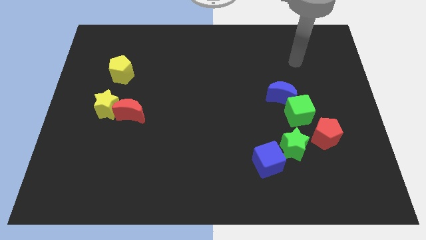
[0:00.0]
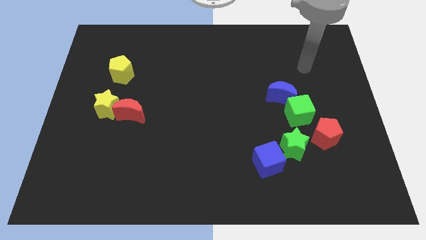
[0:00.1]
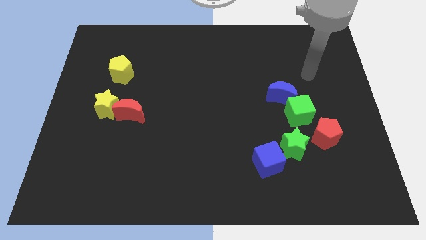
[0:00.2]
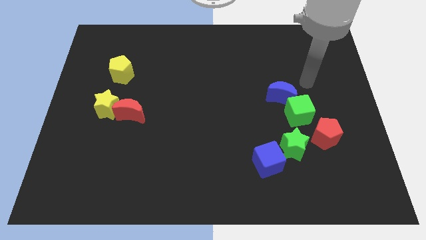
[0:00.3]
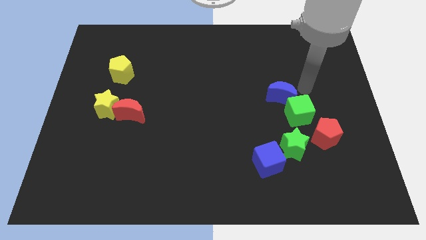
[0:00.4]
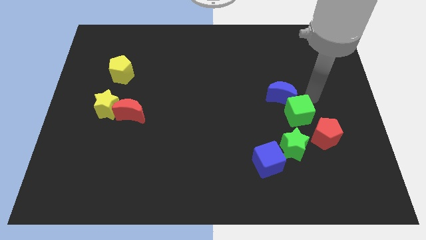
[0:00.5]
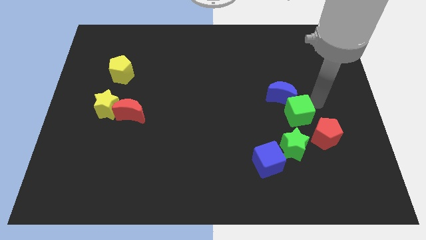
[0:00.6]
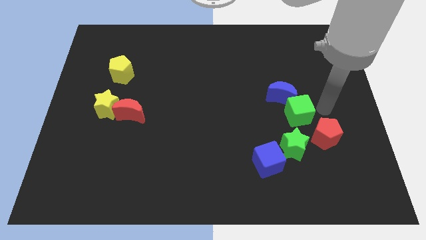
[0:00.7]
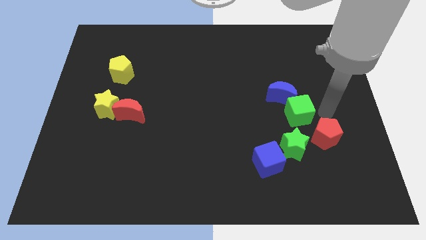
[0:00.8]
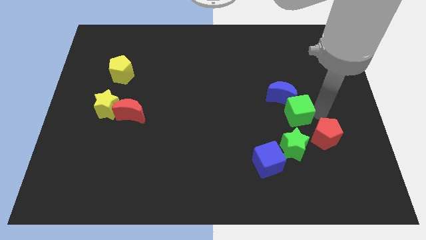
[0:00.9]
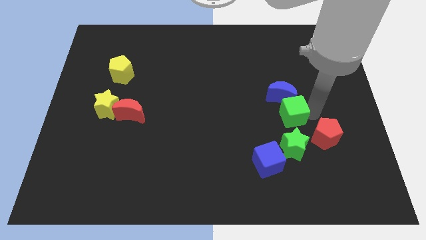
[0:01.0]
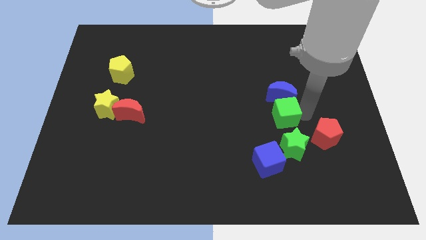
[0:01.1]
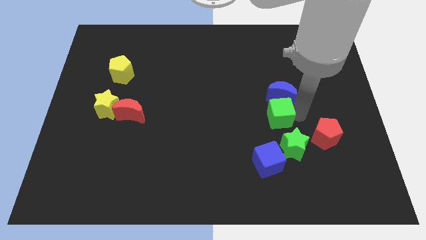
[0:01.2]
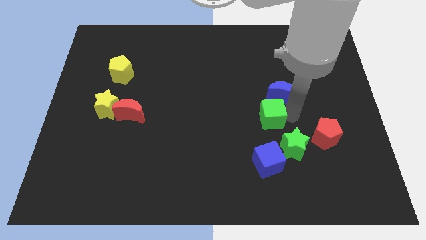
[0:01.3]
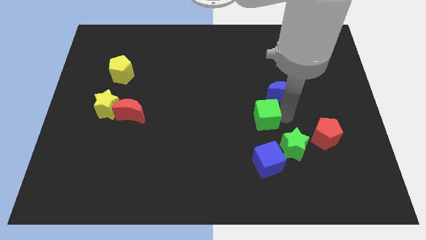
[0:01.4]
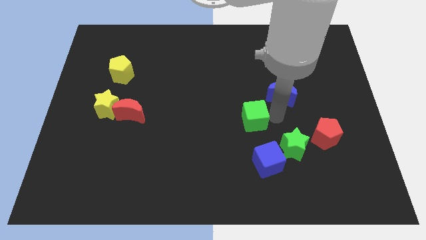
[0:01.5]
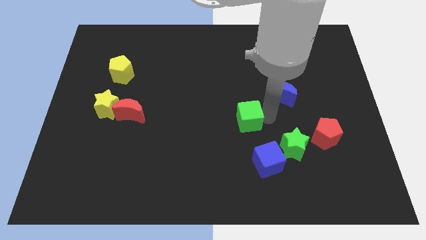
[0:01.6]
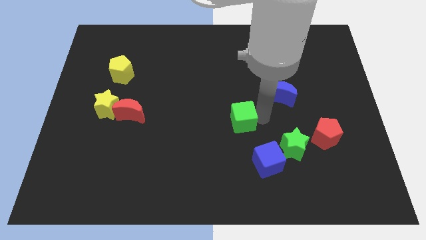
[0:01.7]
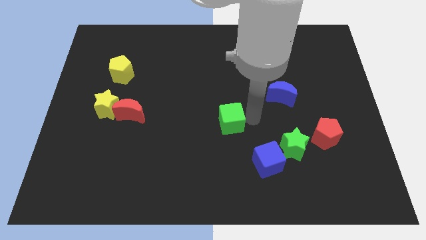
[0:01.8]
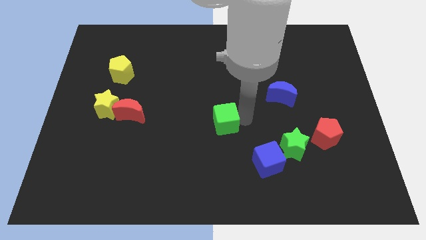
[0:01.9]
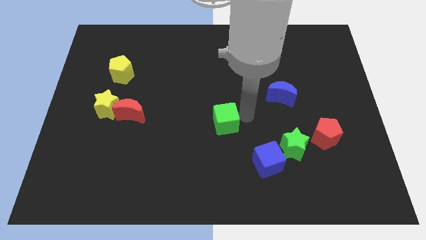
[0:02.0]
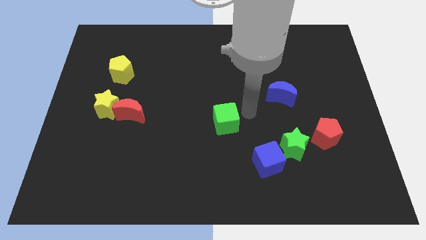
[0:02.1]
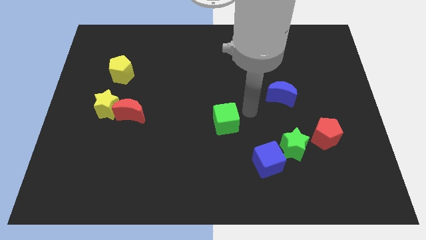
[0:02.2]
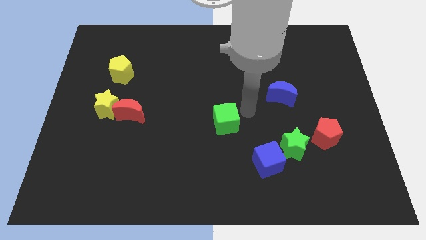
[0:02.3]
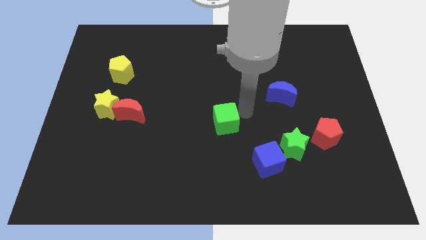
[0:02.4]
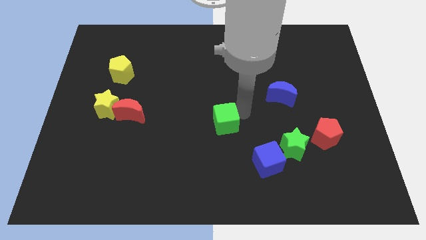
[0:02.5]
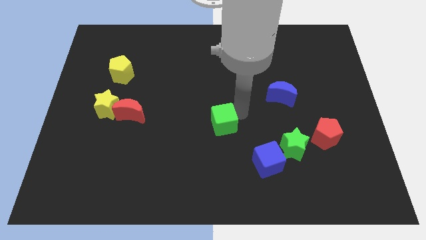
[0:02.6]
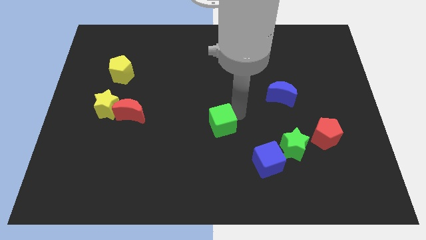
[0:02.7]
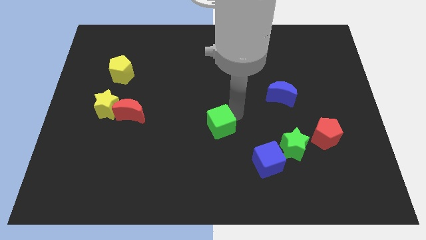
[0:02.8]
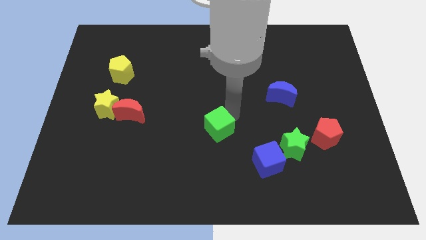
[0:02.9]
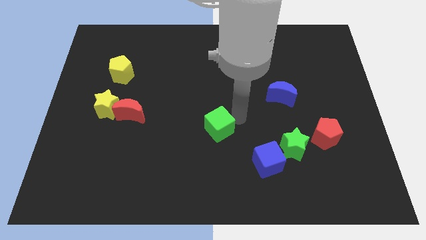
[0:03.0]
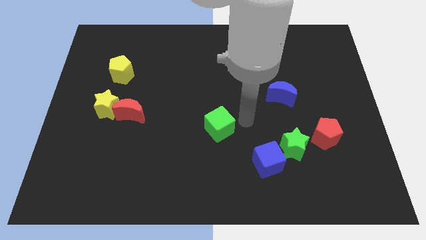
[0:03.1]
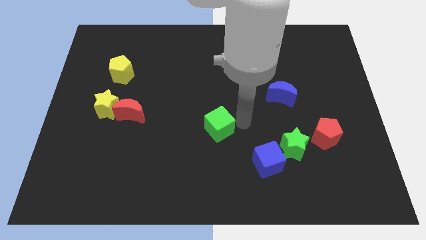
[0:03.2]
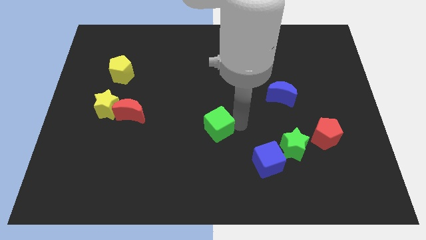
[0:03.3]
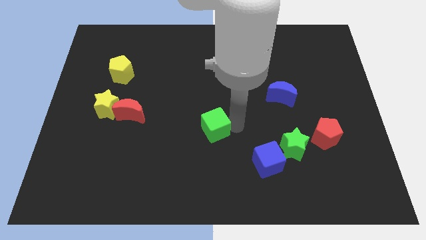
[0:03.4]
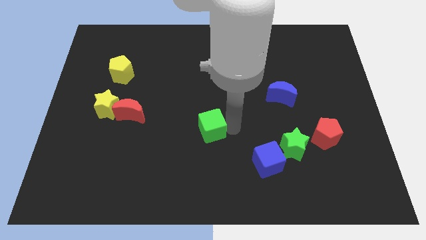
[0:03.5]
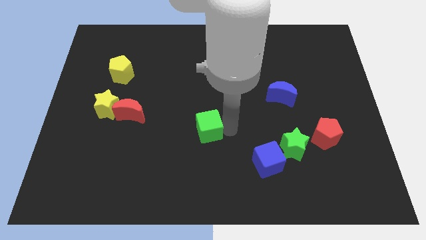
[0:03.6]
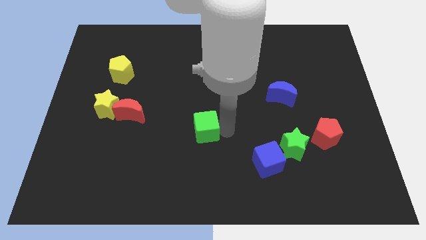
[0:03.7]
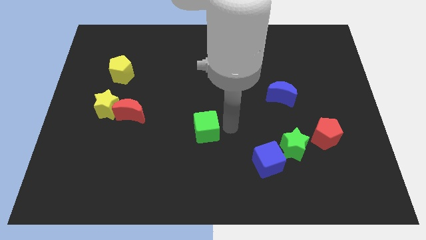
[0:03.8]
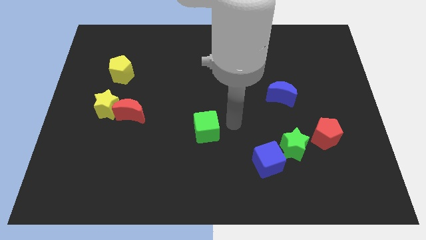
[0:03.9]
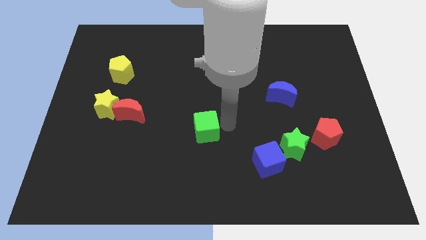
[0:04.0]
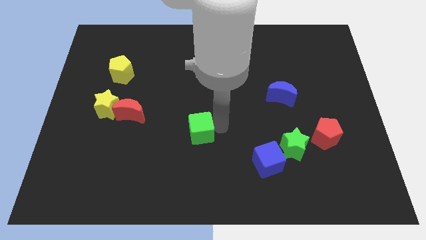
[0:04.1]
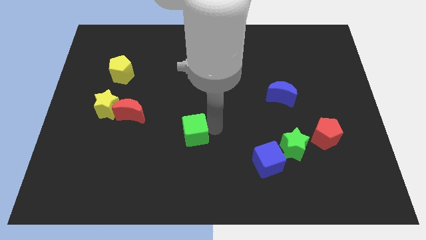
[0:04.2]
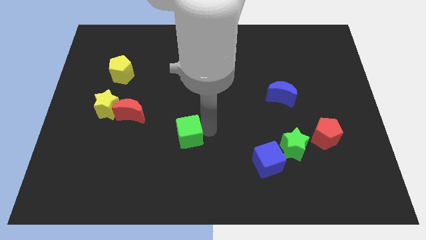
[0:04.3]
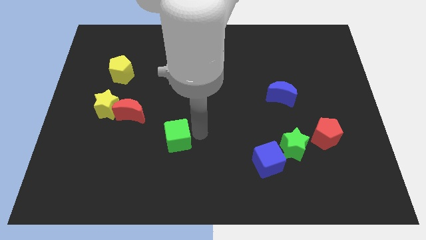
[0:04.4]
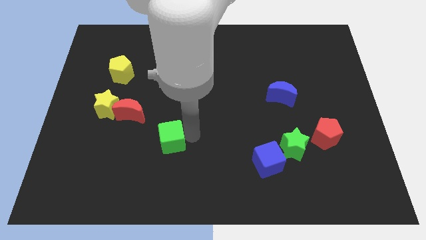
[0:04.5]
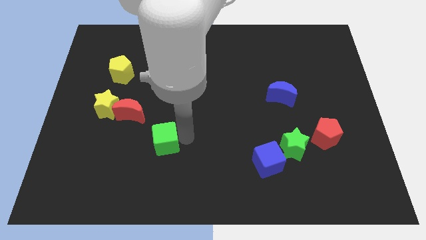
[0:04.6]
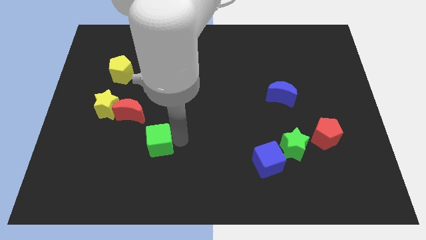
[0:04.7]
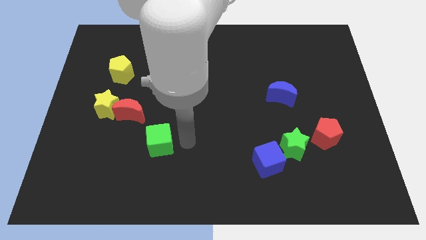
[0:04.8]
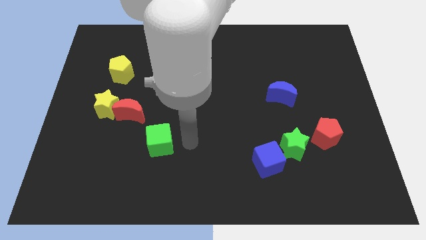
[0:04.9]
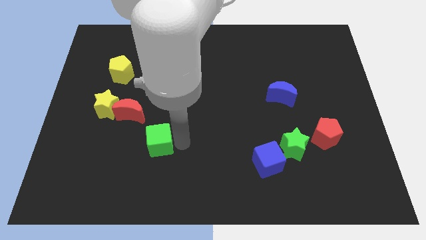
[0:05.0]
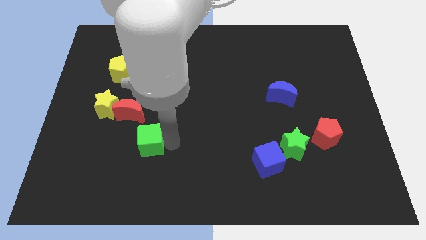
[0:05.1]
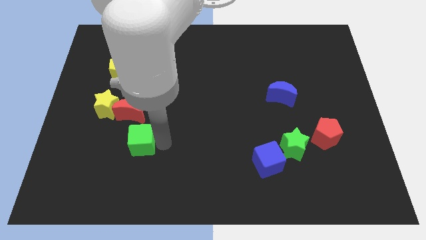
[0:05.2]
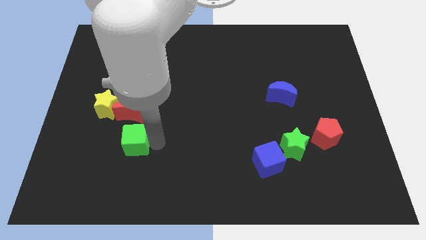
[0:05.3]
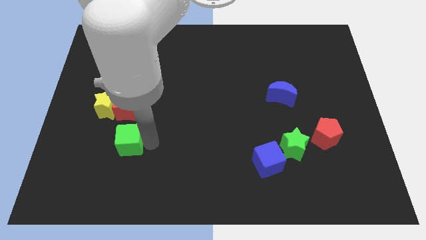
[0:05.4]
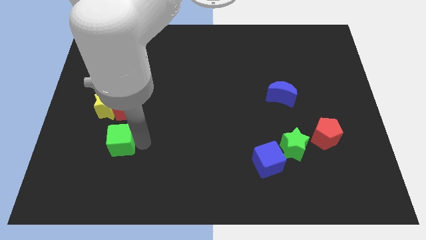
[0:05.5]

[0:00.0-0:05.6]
push the green cube below the yellow star

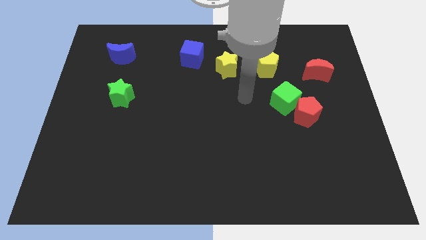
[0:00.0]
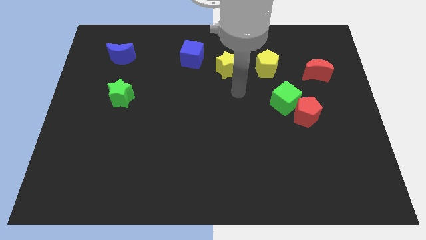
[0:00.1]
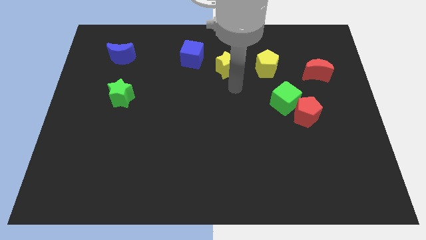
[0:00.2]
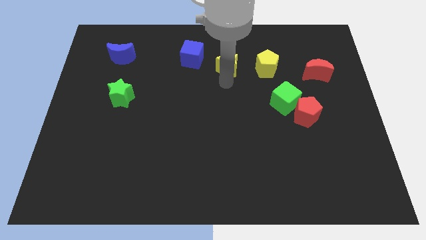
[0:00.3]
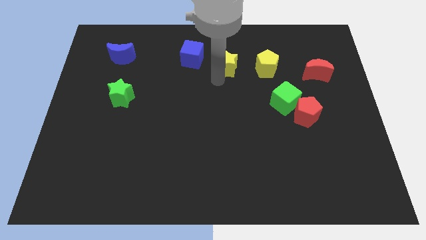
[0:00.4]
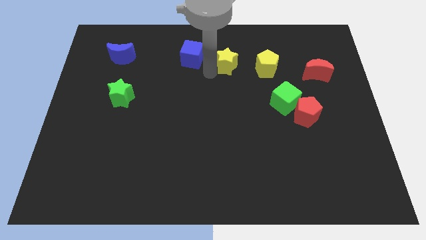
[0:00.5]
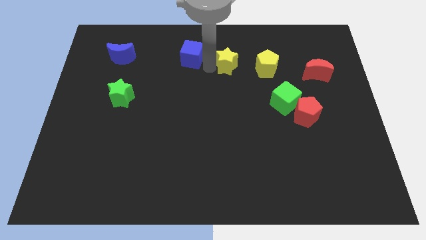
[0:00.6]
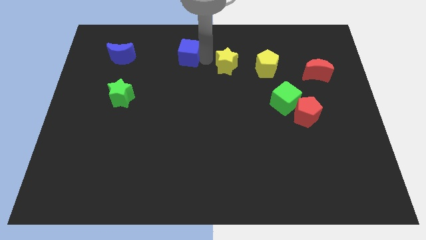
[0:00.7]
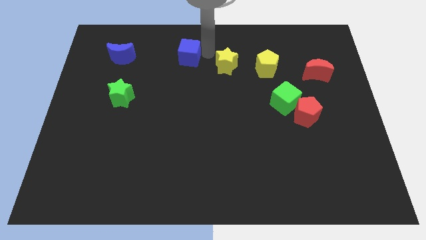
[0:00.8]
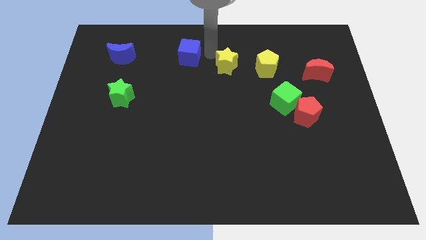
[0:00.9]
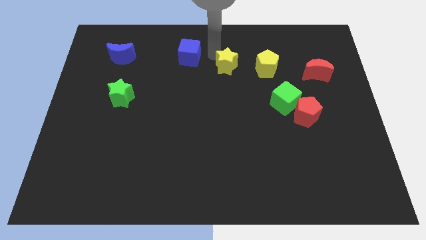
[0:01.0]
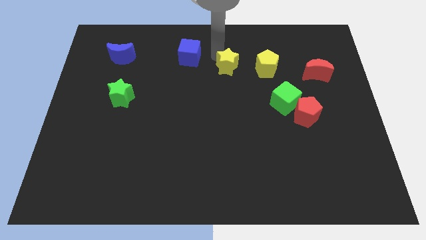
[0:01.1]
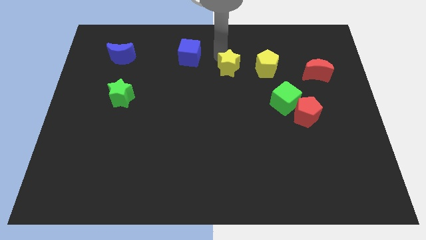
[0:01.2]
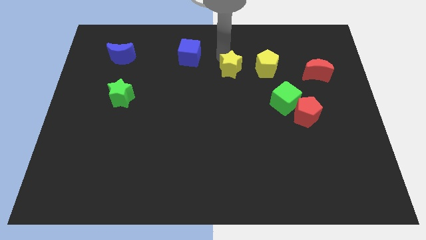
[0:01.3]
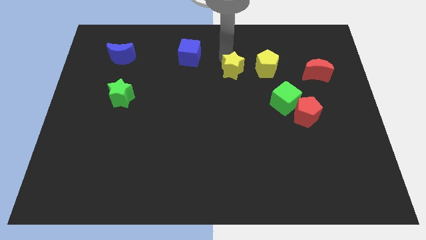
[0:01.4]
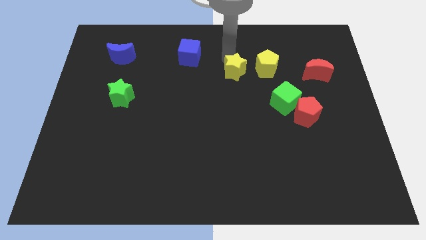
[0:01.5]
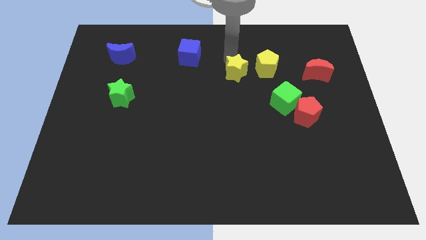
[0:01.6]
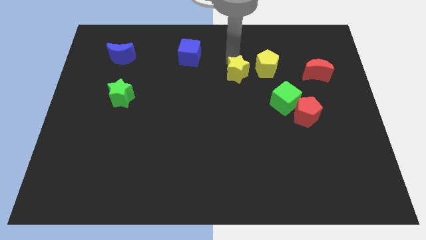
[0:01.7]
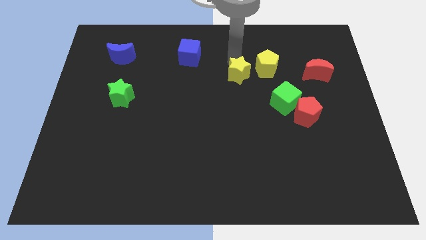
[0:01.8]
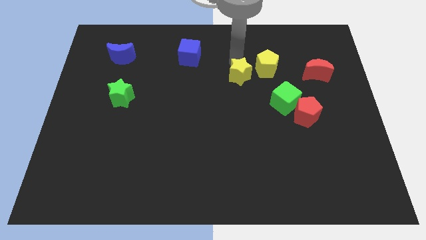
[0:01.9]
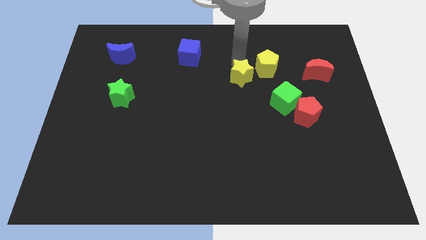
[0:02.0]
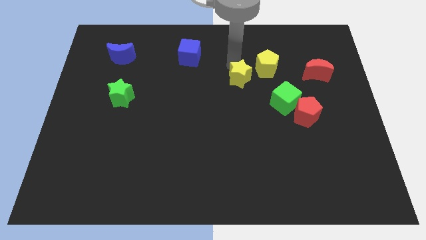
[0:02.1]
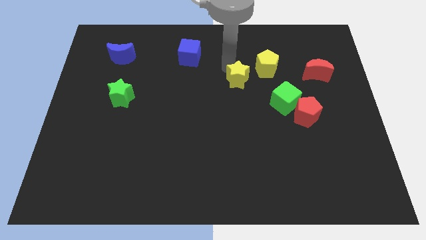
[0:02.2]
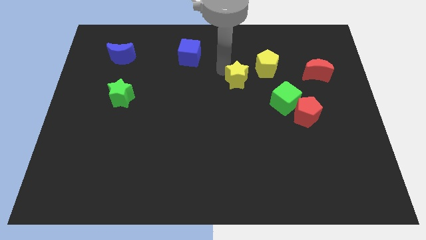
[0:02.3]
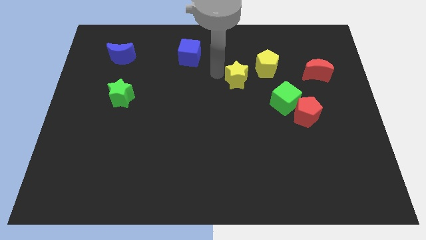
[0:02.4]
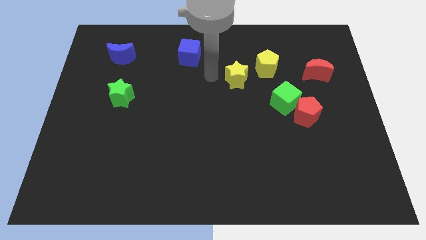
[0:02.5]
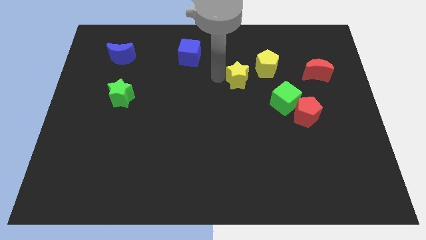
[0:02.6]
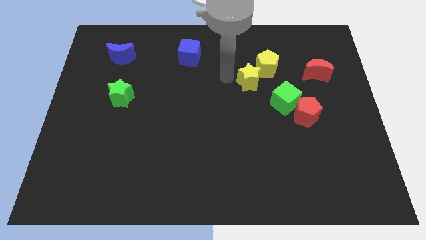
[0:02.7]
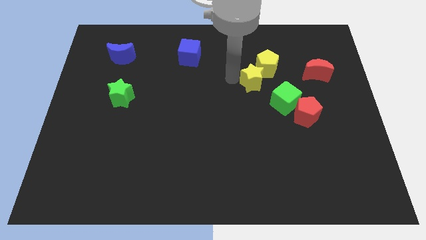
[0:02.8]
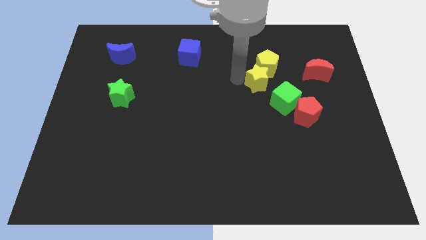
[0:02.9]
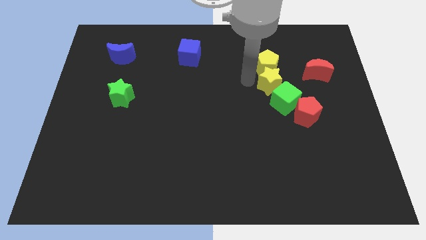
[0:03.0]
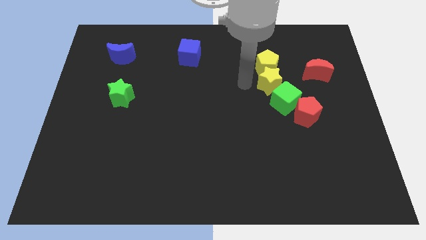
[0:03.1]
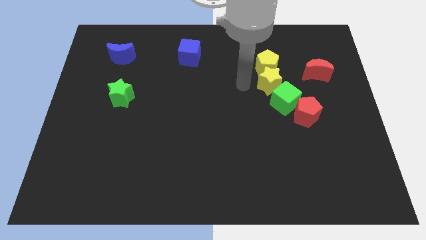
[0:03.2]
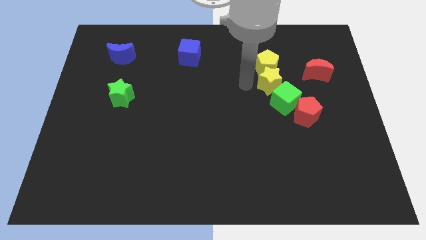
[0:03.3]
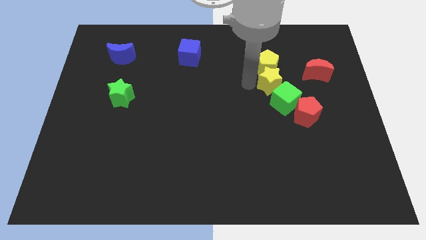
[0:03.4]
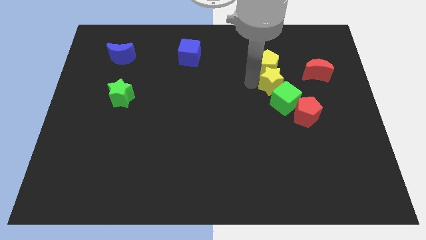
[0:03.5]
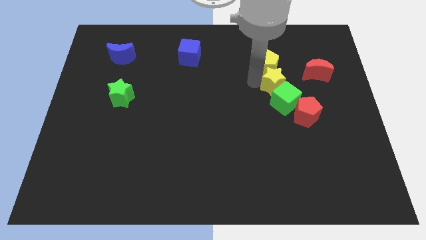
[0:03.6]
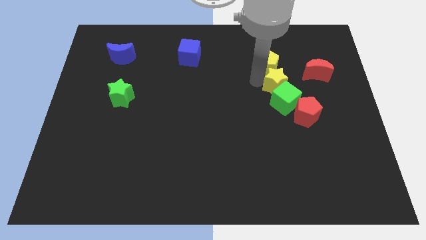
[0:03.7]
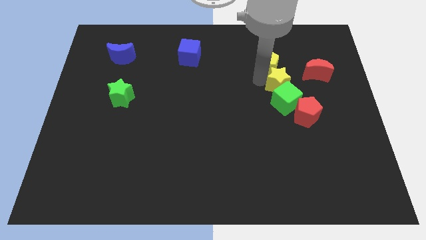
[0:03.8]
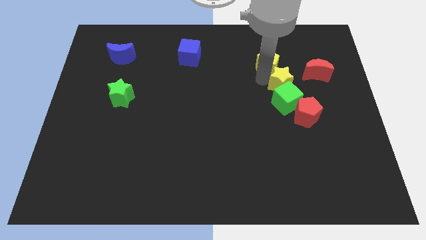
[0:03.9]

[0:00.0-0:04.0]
move the yellow star above the red pentagon
